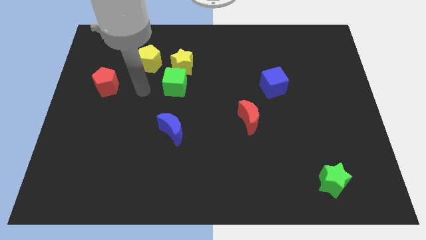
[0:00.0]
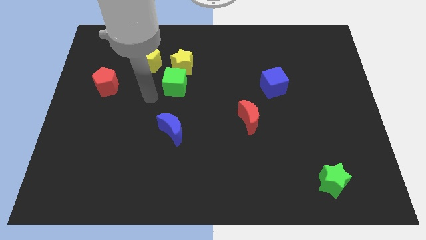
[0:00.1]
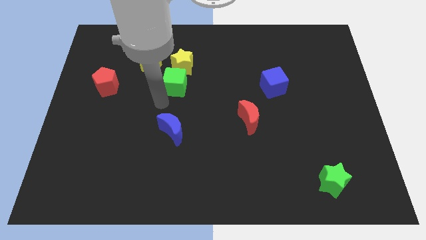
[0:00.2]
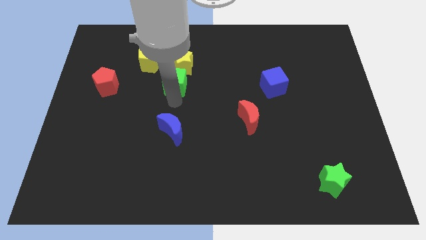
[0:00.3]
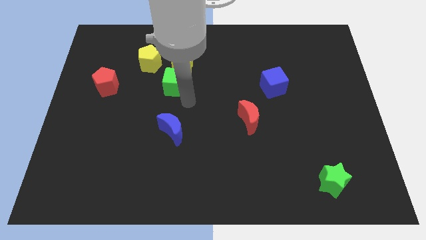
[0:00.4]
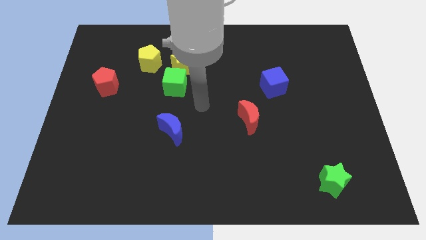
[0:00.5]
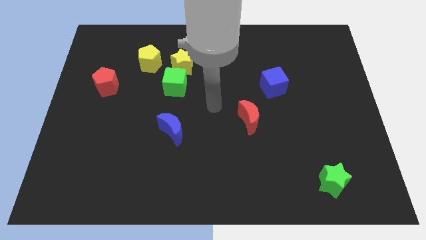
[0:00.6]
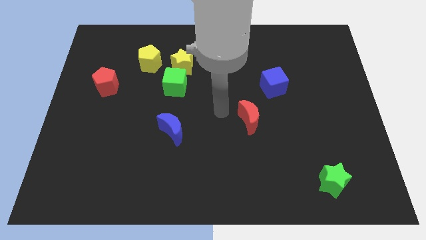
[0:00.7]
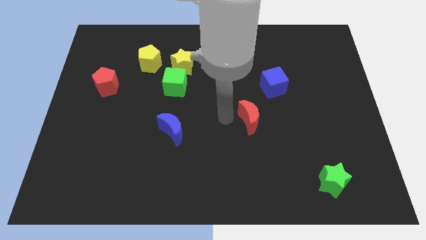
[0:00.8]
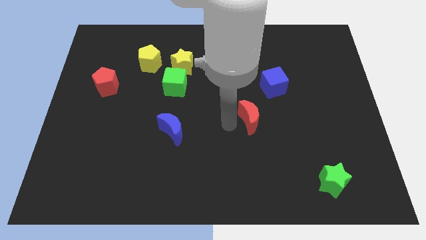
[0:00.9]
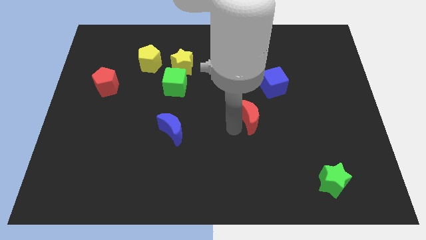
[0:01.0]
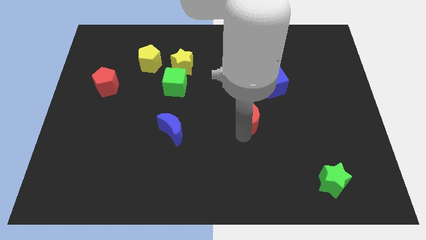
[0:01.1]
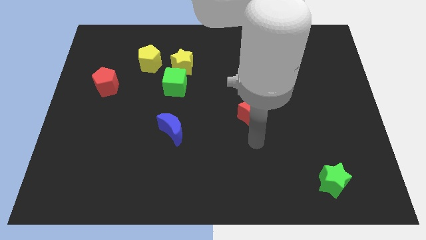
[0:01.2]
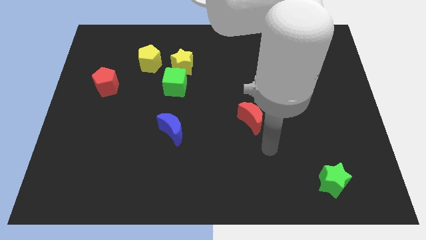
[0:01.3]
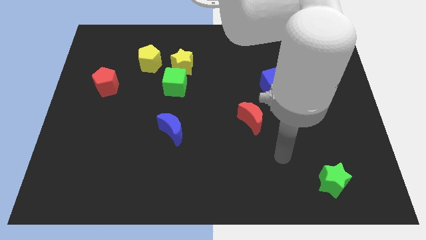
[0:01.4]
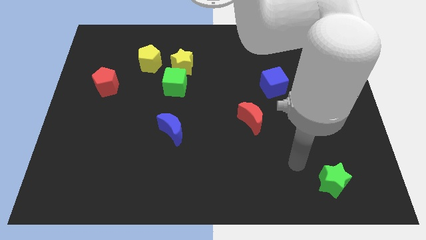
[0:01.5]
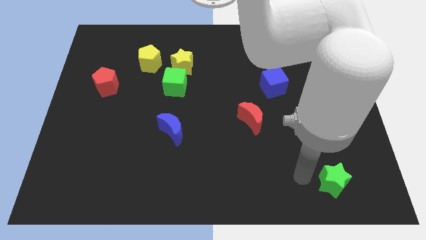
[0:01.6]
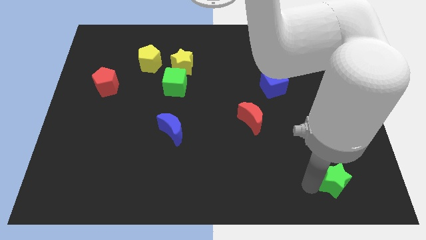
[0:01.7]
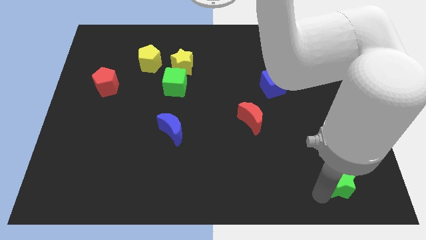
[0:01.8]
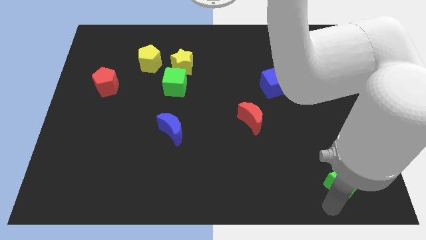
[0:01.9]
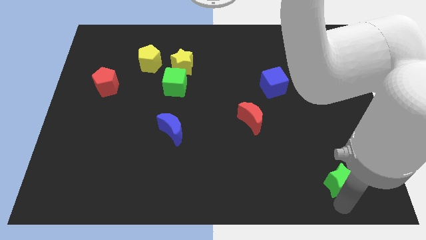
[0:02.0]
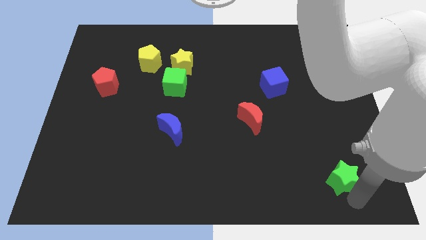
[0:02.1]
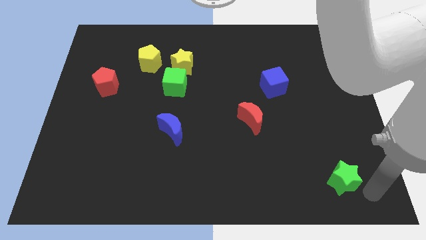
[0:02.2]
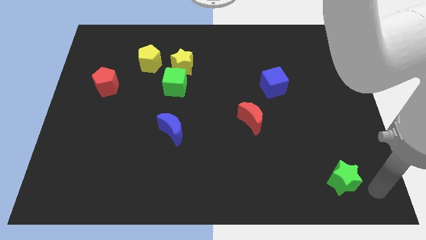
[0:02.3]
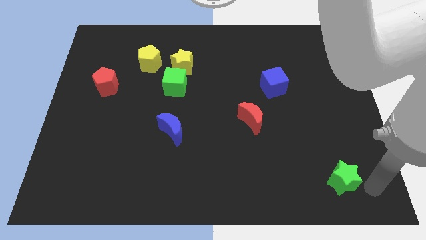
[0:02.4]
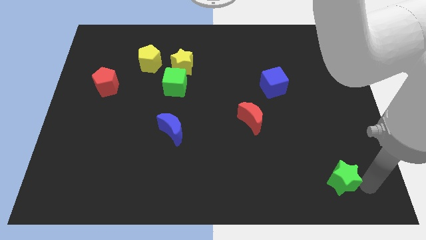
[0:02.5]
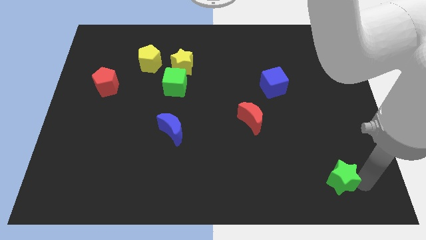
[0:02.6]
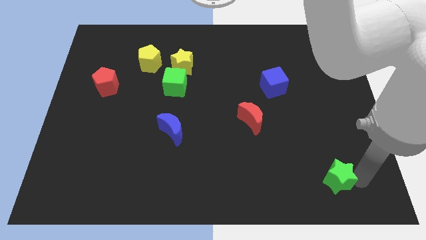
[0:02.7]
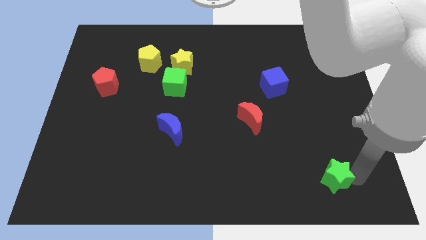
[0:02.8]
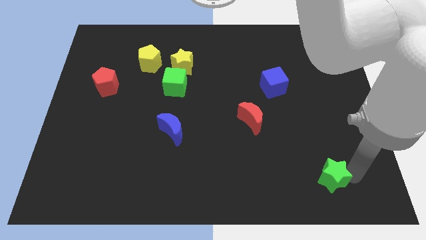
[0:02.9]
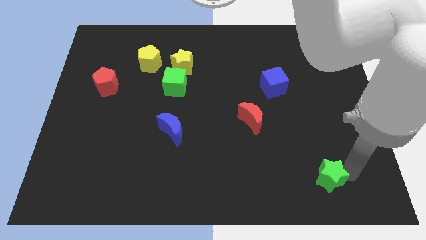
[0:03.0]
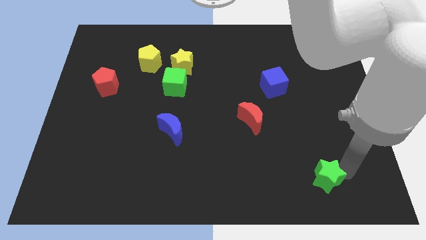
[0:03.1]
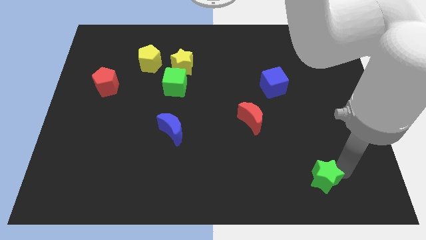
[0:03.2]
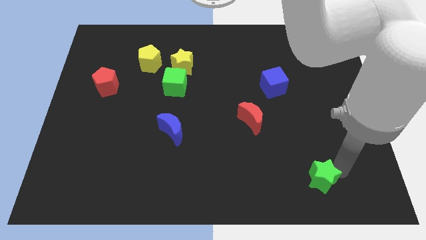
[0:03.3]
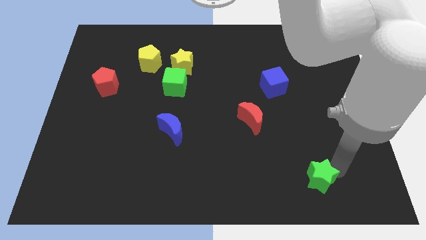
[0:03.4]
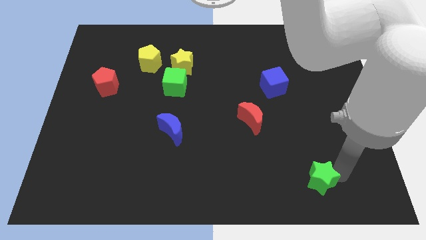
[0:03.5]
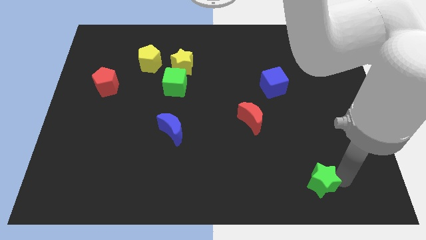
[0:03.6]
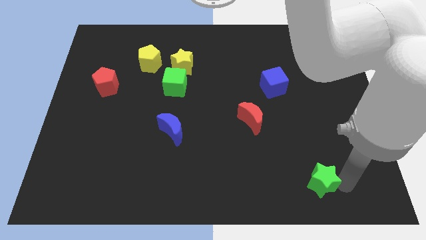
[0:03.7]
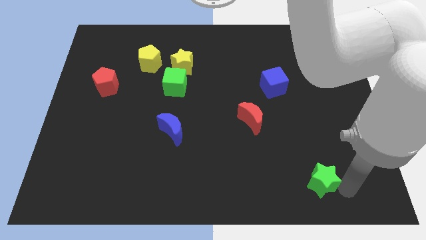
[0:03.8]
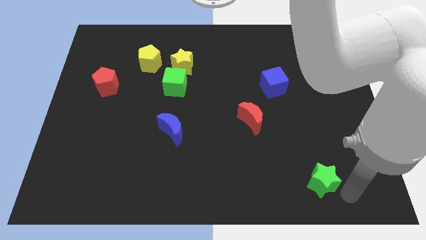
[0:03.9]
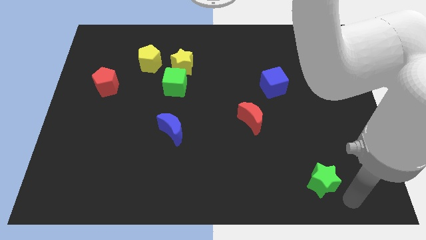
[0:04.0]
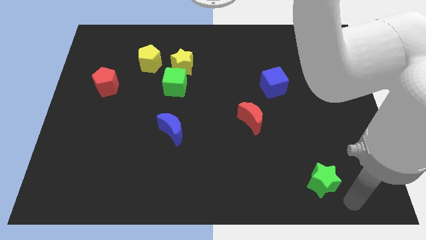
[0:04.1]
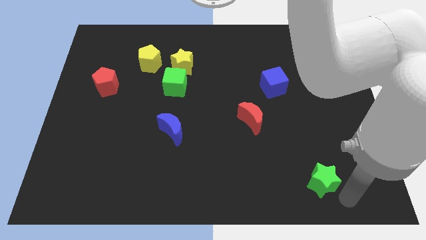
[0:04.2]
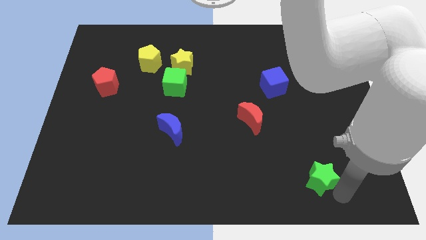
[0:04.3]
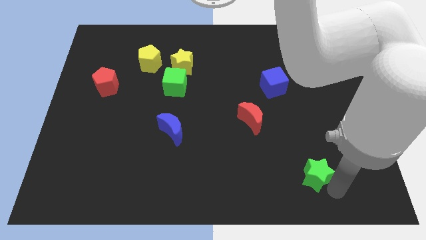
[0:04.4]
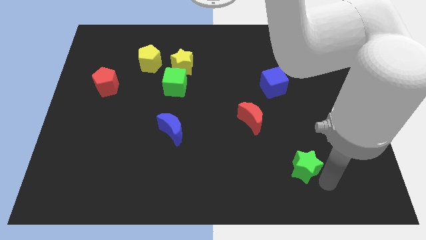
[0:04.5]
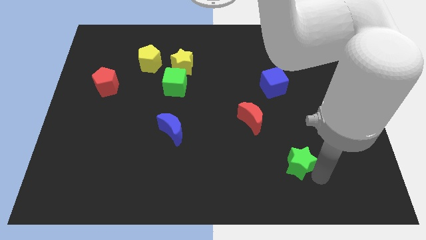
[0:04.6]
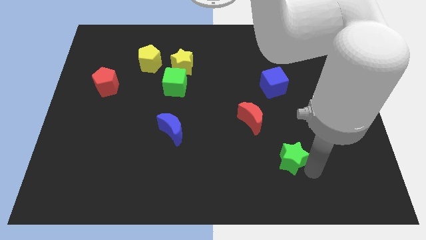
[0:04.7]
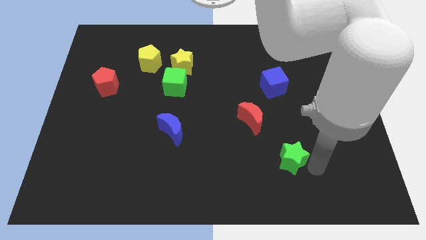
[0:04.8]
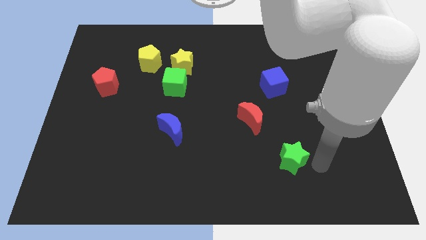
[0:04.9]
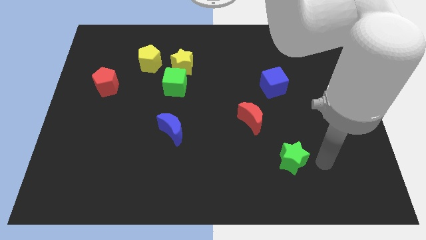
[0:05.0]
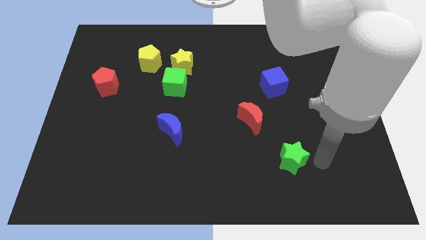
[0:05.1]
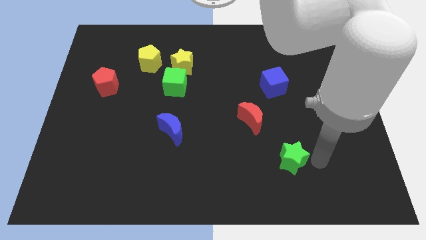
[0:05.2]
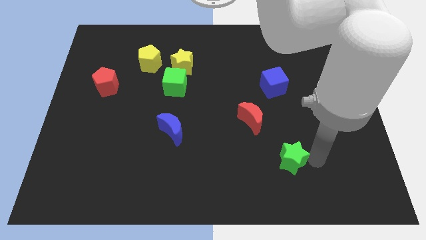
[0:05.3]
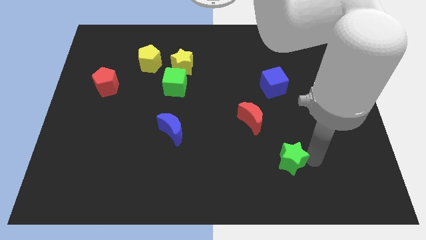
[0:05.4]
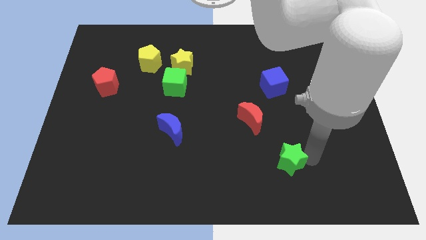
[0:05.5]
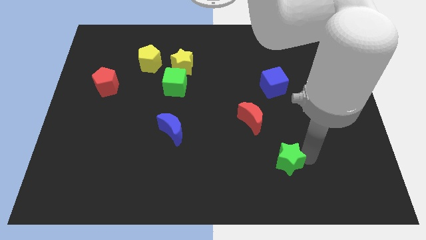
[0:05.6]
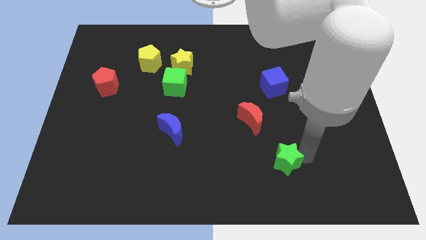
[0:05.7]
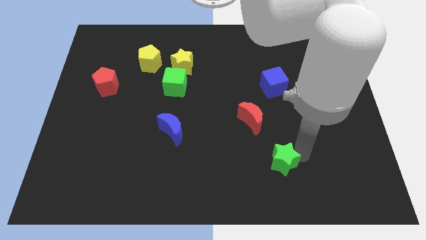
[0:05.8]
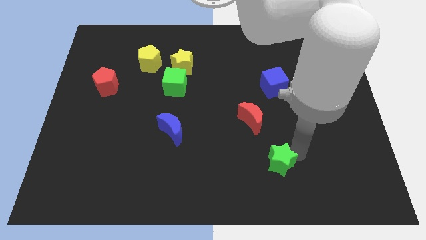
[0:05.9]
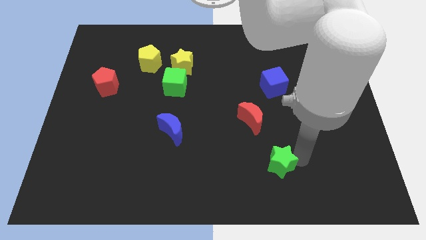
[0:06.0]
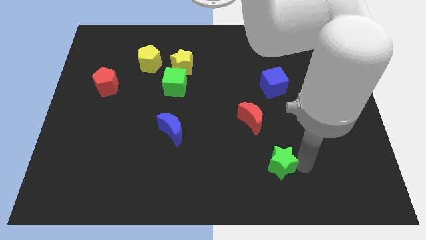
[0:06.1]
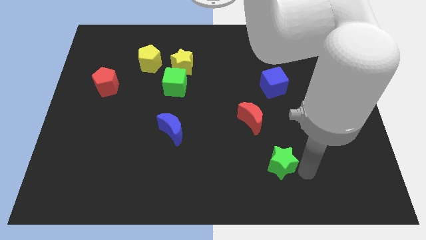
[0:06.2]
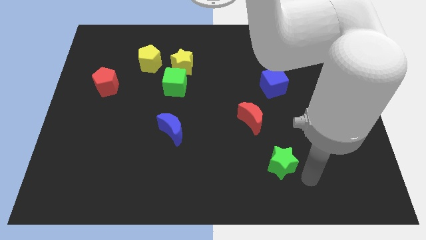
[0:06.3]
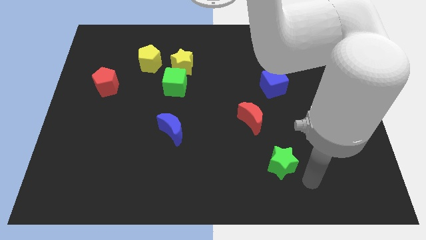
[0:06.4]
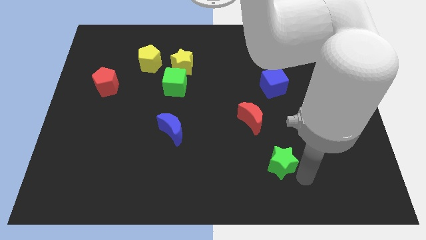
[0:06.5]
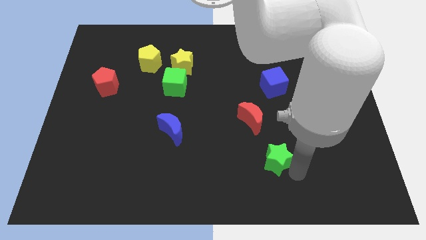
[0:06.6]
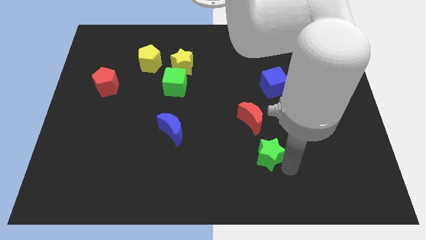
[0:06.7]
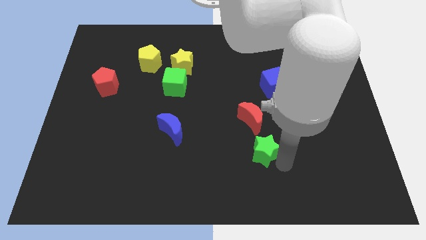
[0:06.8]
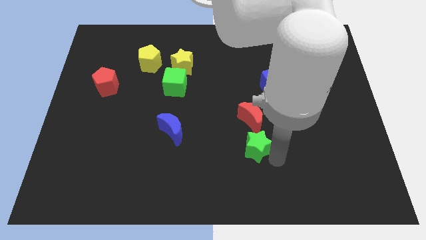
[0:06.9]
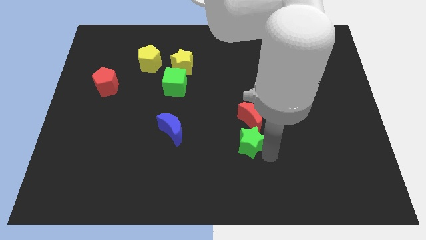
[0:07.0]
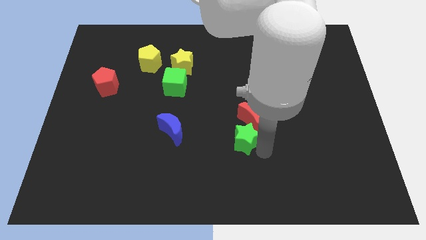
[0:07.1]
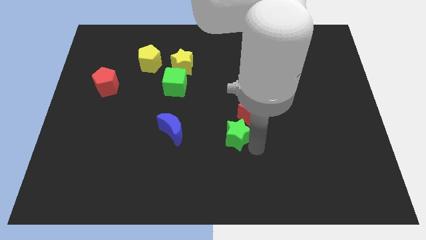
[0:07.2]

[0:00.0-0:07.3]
slide the green star to the center of the board
